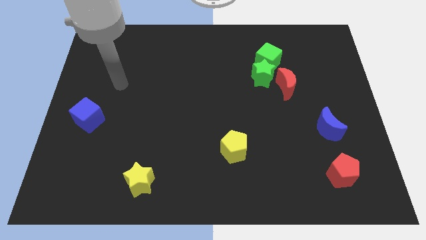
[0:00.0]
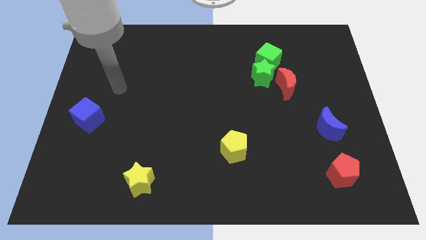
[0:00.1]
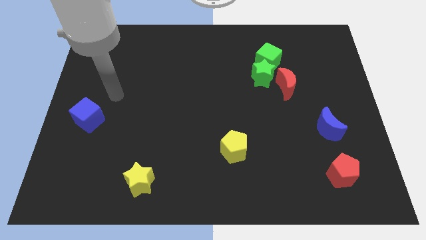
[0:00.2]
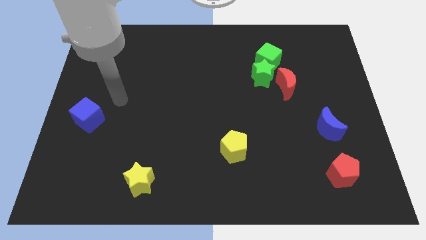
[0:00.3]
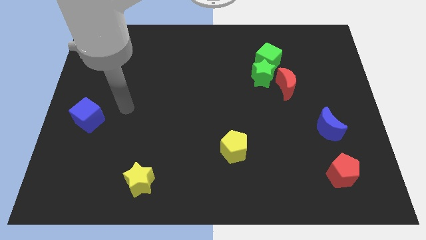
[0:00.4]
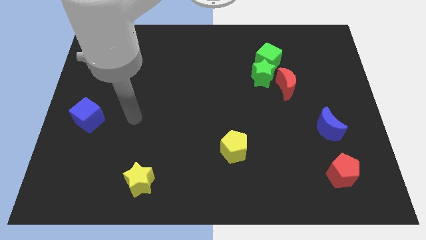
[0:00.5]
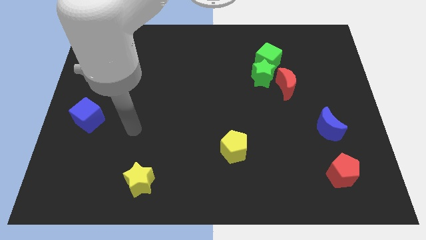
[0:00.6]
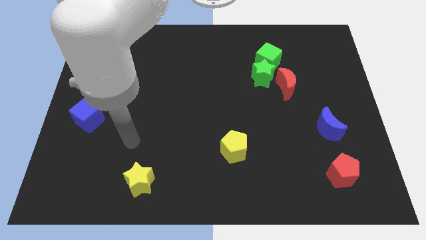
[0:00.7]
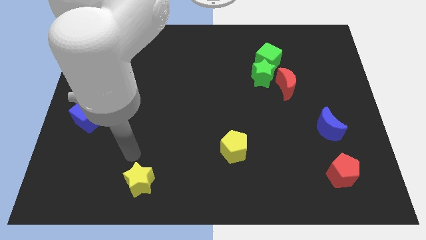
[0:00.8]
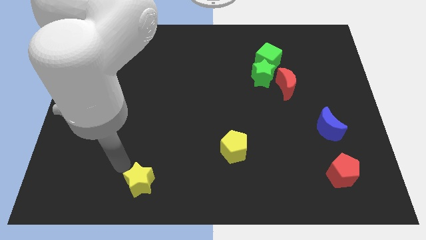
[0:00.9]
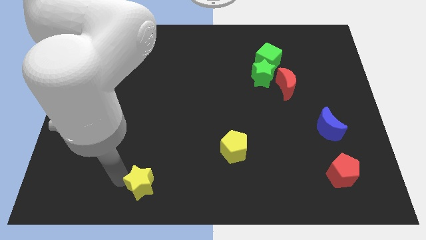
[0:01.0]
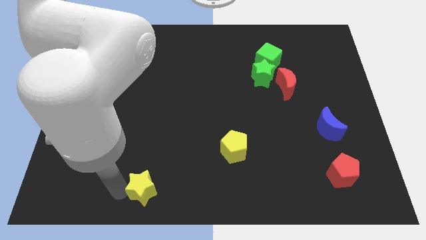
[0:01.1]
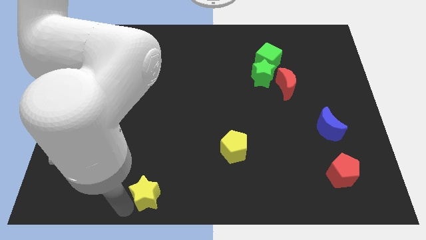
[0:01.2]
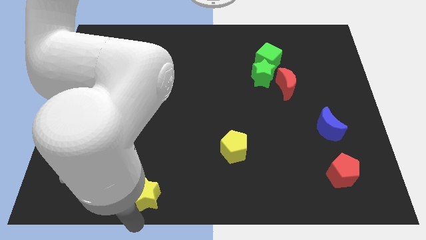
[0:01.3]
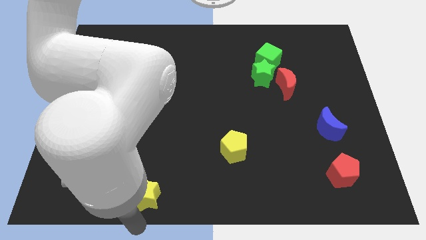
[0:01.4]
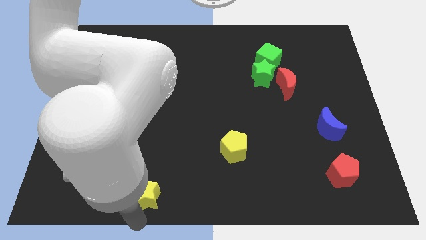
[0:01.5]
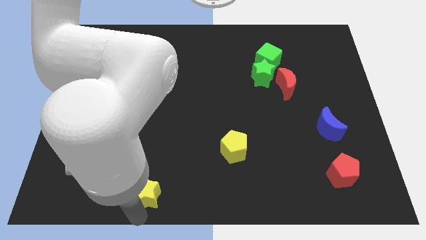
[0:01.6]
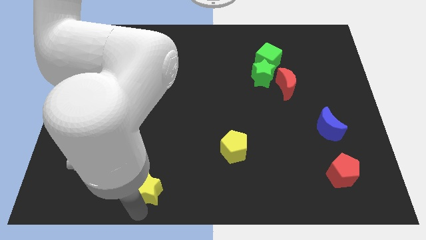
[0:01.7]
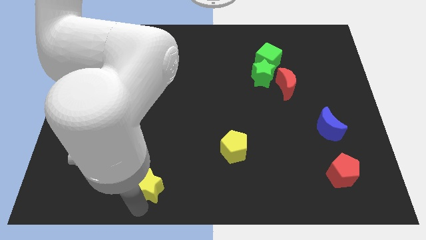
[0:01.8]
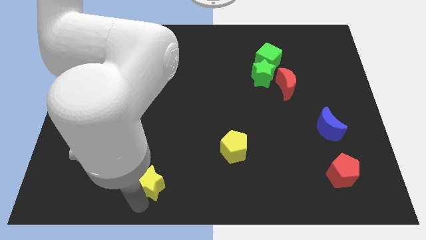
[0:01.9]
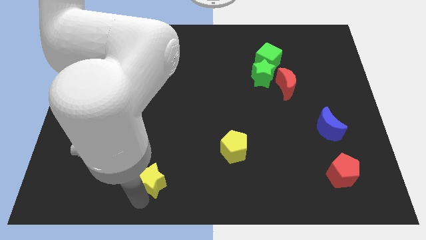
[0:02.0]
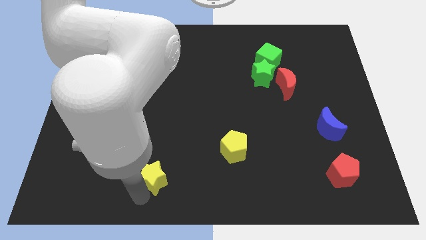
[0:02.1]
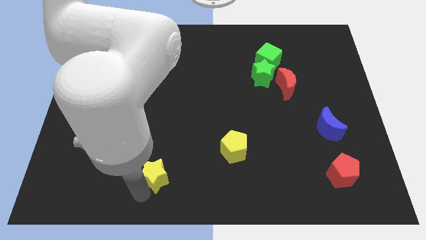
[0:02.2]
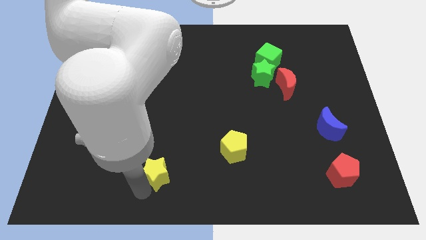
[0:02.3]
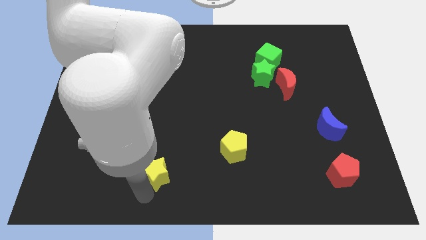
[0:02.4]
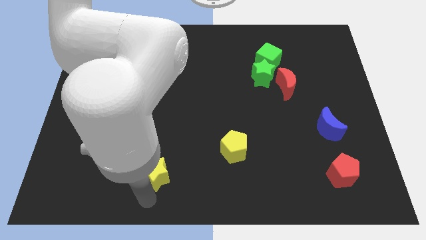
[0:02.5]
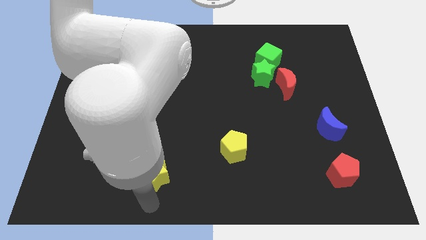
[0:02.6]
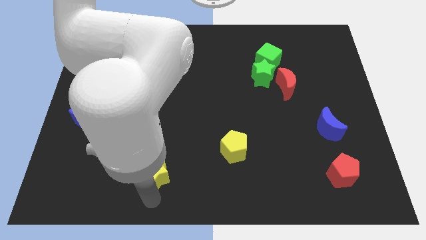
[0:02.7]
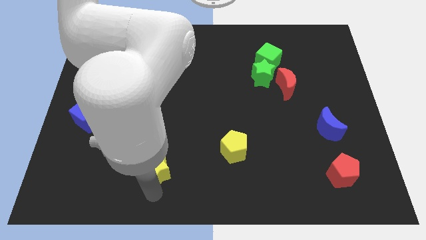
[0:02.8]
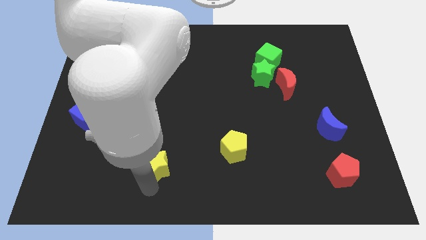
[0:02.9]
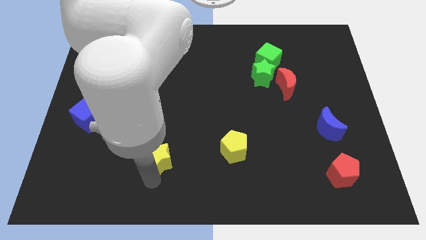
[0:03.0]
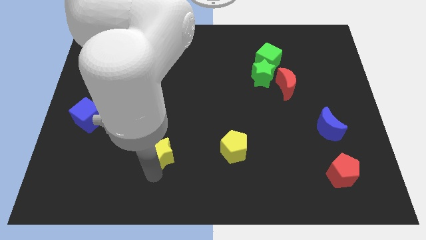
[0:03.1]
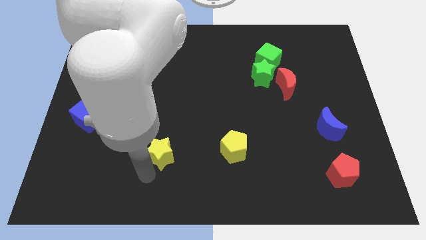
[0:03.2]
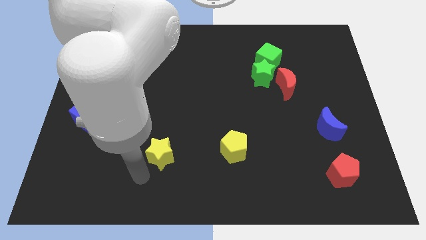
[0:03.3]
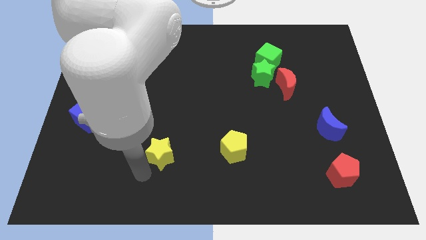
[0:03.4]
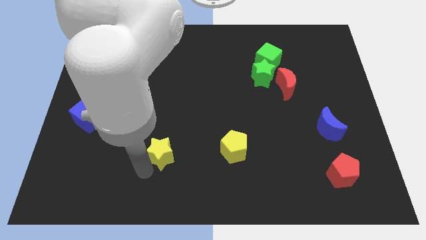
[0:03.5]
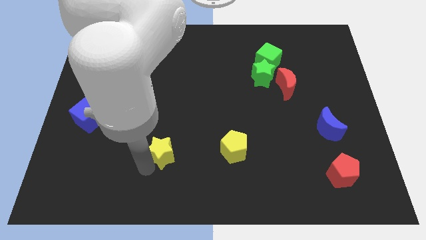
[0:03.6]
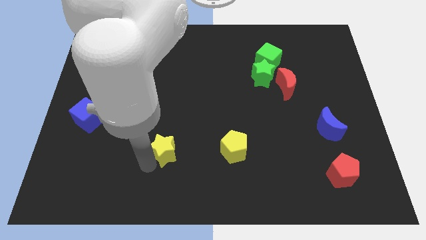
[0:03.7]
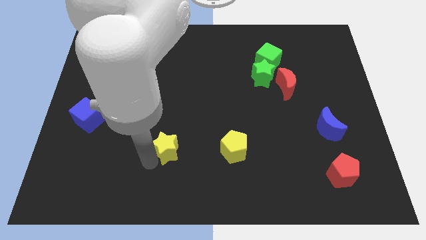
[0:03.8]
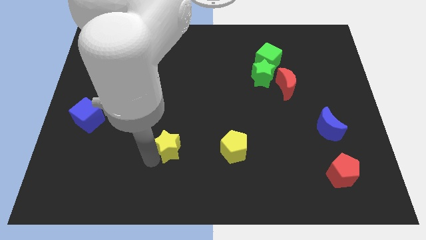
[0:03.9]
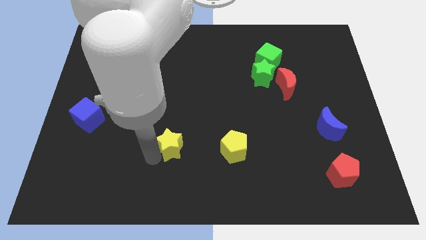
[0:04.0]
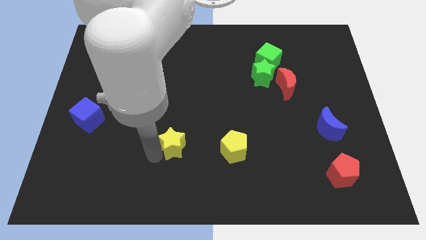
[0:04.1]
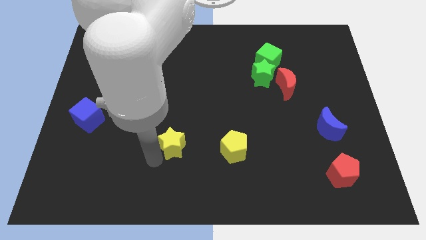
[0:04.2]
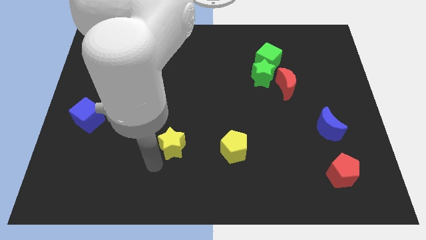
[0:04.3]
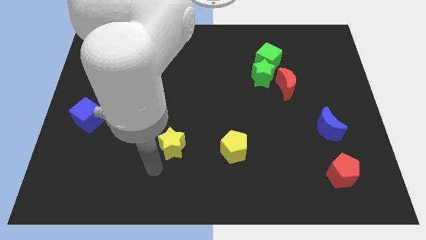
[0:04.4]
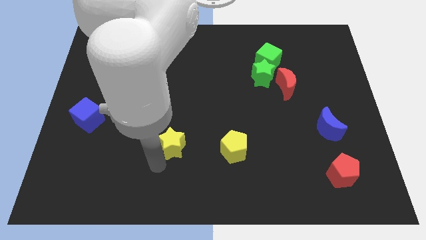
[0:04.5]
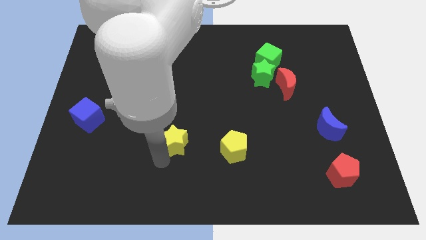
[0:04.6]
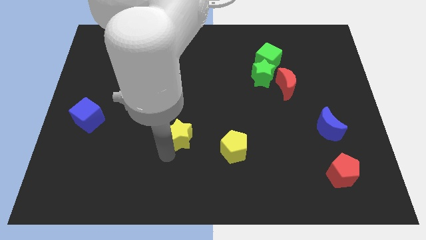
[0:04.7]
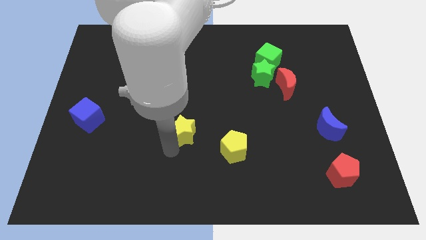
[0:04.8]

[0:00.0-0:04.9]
slide the yellow star to the center

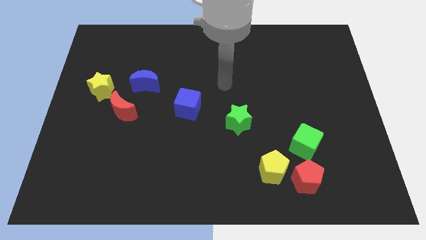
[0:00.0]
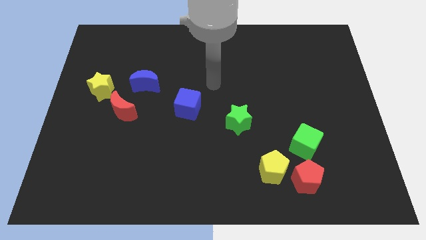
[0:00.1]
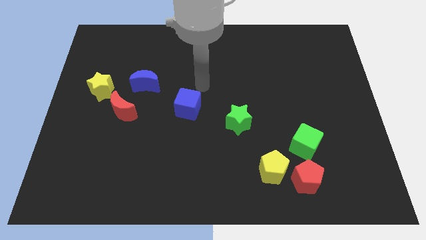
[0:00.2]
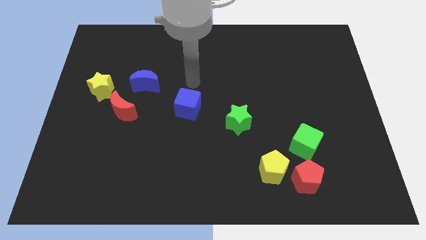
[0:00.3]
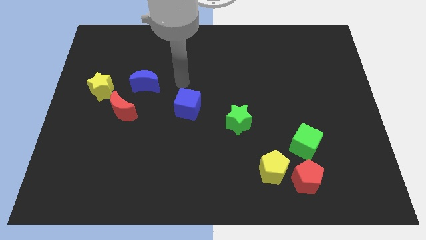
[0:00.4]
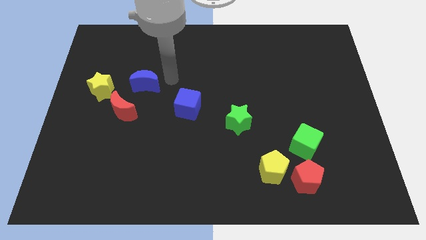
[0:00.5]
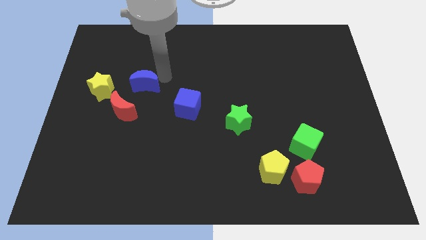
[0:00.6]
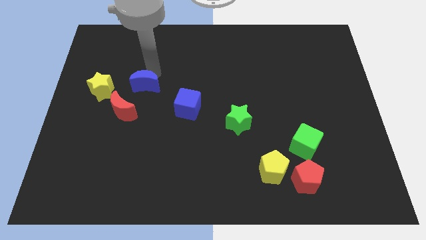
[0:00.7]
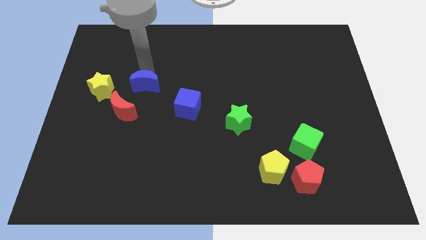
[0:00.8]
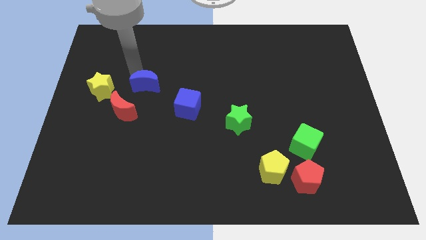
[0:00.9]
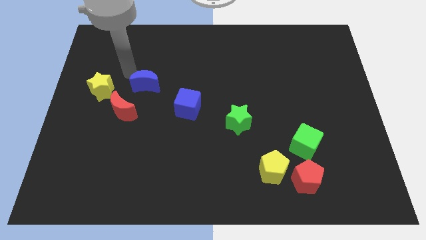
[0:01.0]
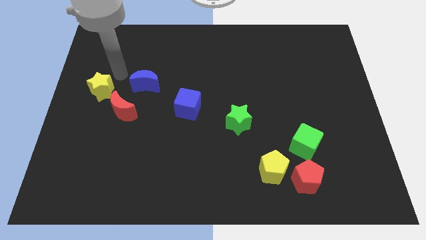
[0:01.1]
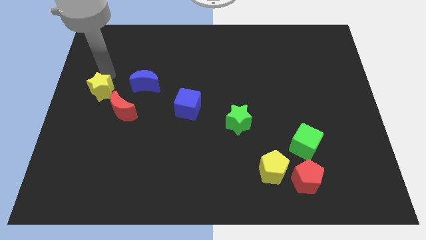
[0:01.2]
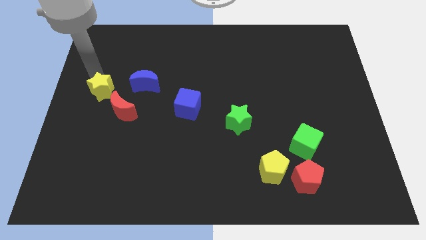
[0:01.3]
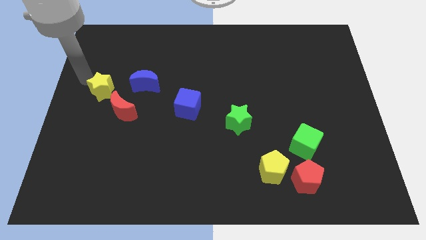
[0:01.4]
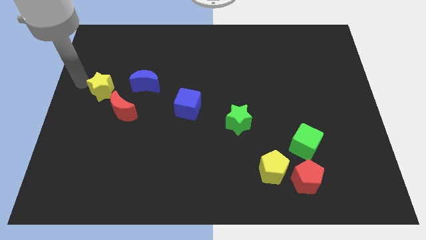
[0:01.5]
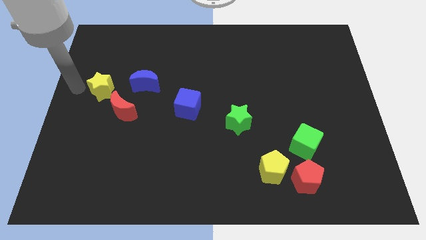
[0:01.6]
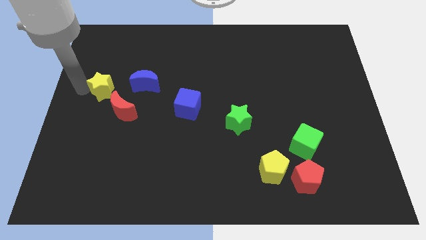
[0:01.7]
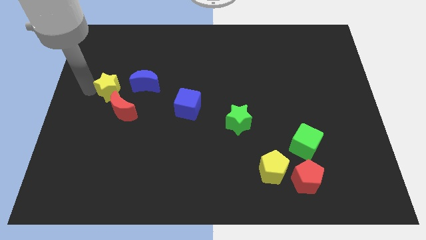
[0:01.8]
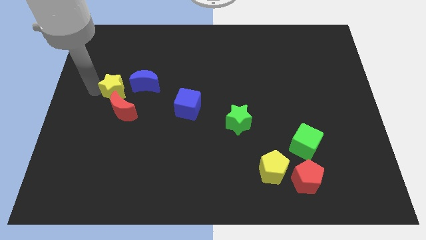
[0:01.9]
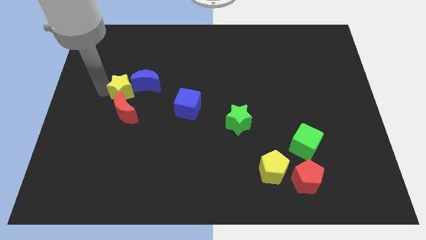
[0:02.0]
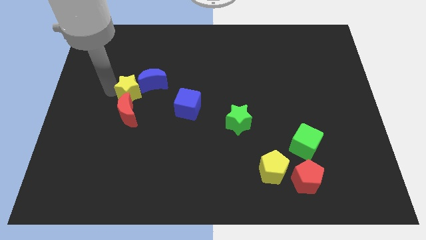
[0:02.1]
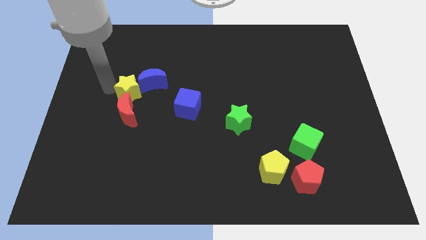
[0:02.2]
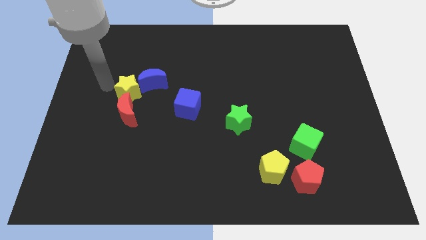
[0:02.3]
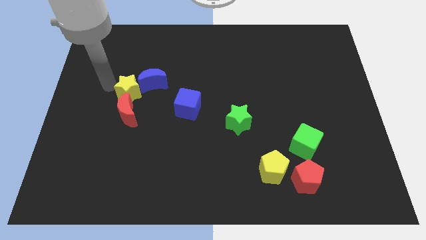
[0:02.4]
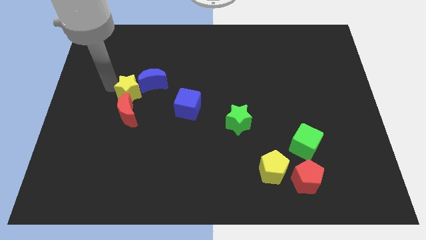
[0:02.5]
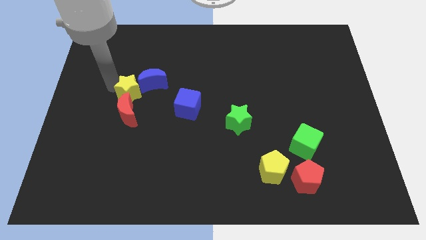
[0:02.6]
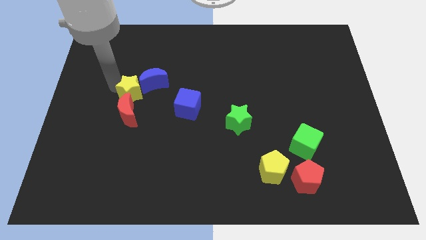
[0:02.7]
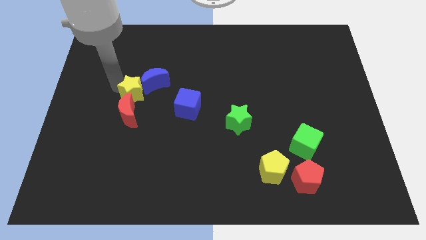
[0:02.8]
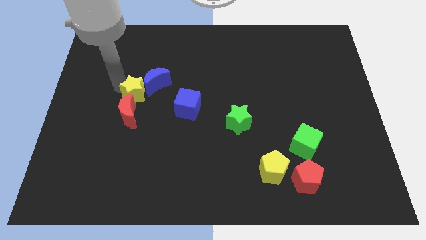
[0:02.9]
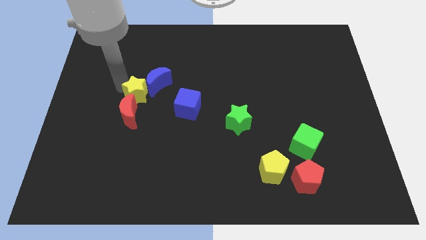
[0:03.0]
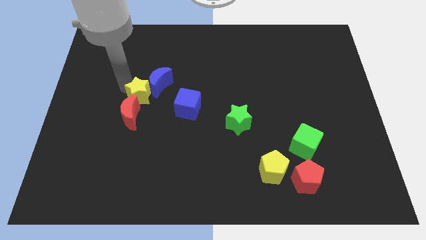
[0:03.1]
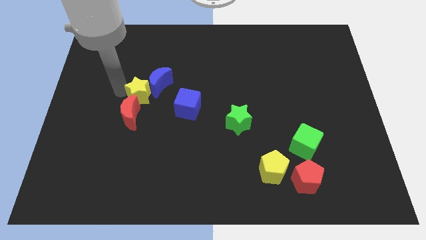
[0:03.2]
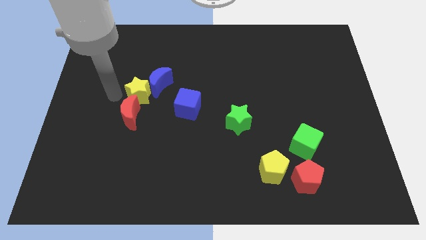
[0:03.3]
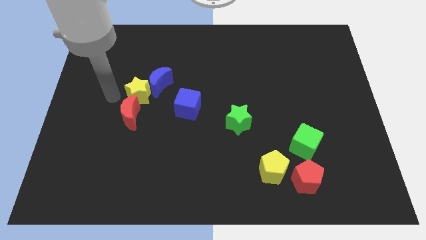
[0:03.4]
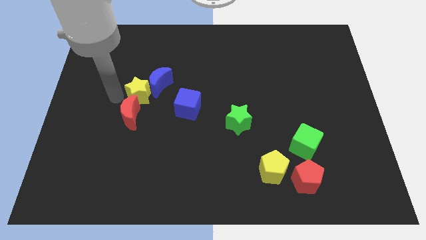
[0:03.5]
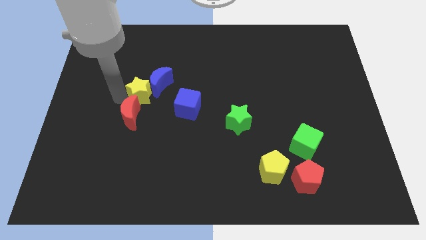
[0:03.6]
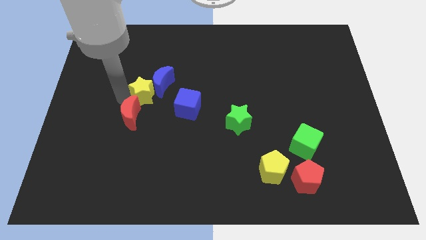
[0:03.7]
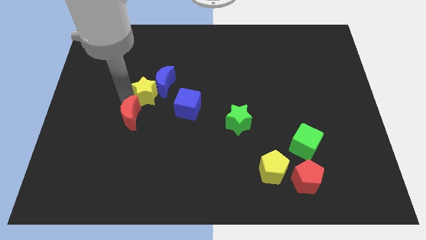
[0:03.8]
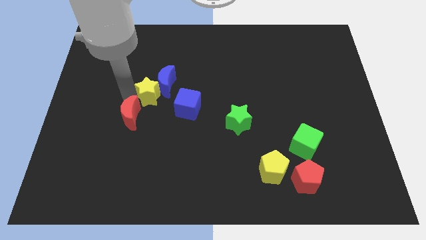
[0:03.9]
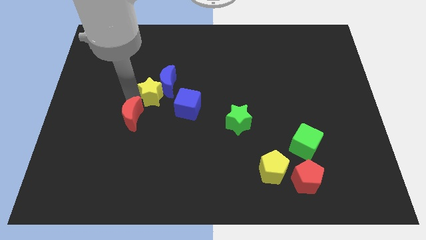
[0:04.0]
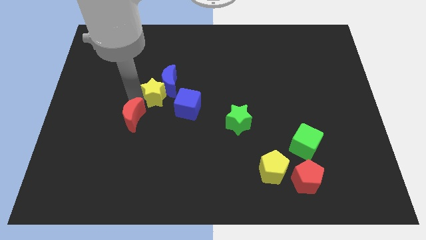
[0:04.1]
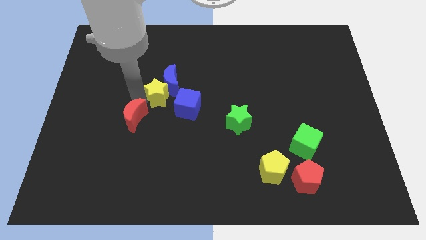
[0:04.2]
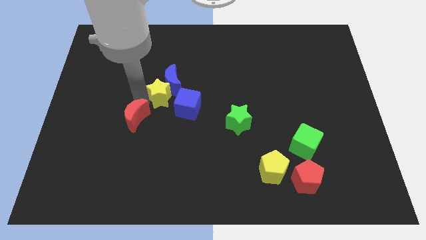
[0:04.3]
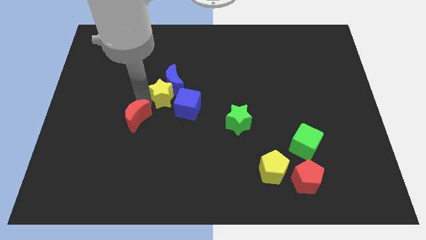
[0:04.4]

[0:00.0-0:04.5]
put the yellow star to the center
